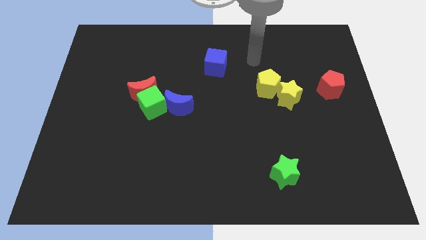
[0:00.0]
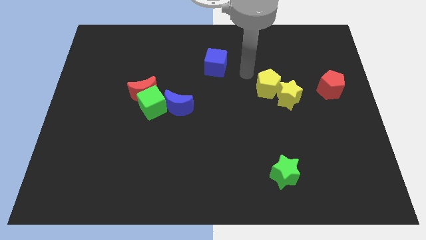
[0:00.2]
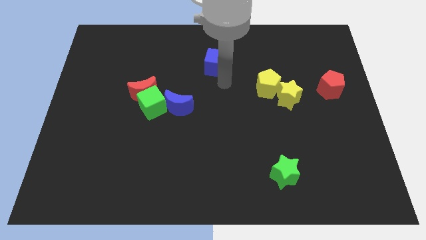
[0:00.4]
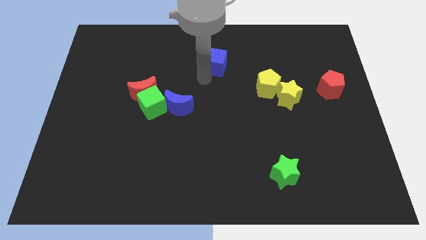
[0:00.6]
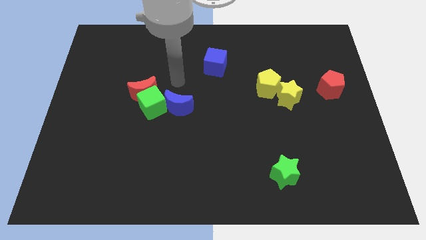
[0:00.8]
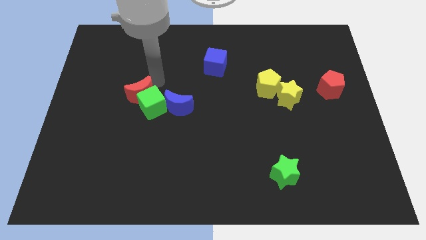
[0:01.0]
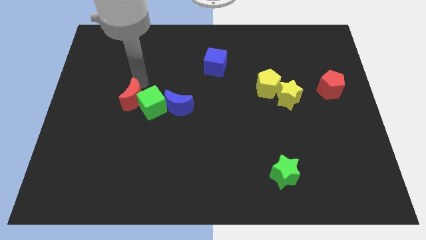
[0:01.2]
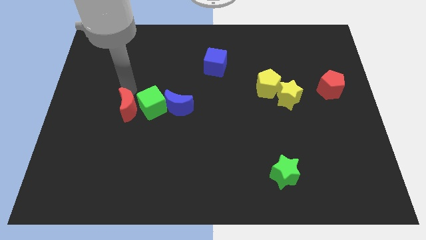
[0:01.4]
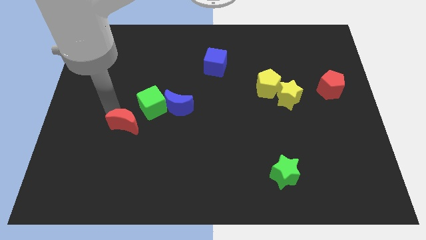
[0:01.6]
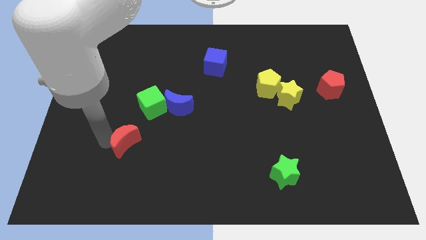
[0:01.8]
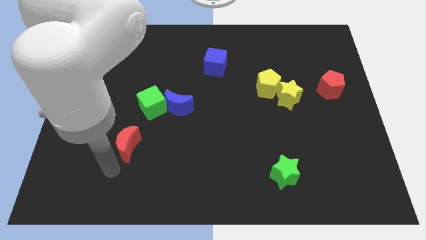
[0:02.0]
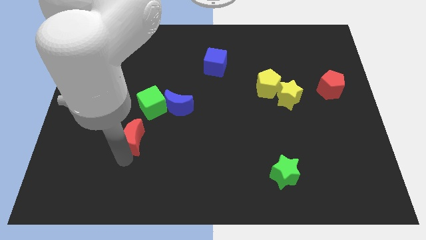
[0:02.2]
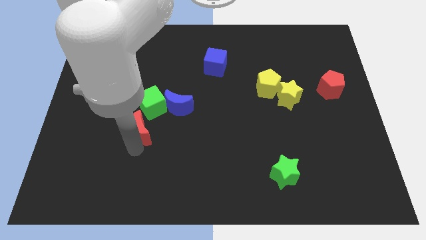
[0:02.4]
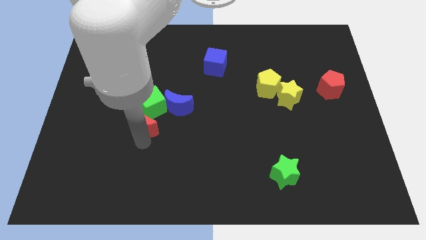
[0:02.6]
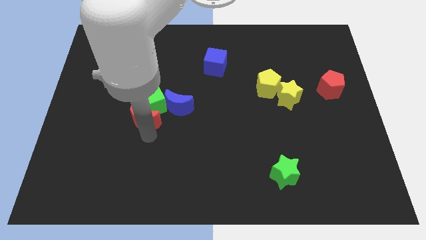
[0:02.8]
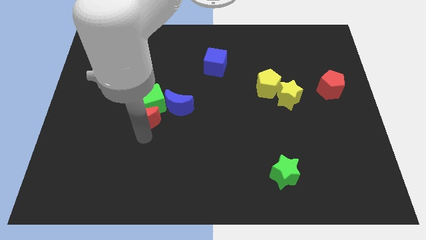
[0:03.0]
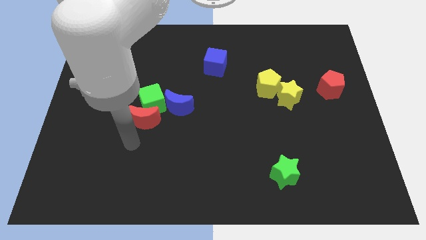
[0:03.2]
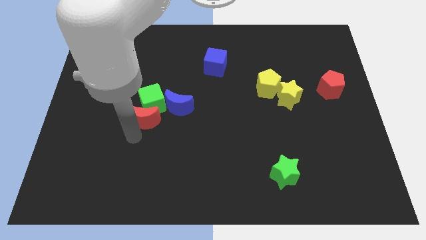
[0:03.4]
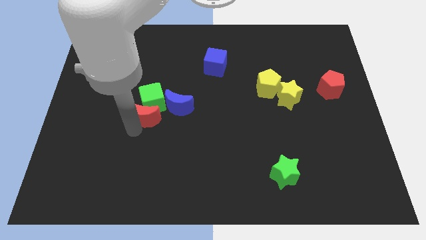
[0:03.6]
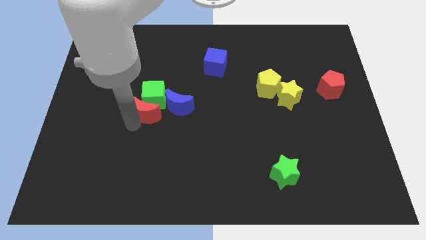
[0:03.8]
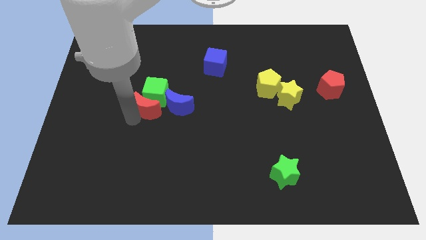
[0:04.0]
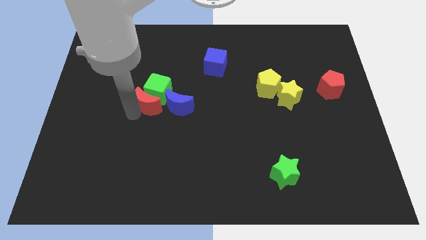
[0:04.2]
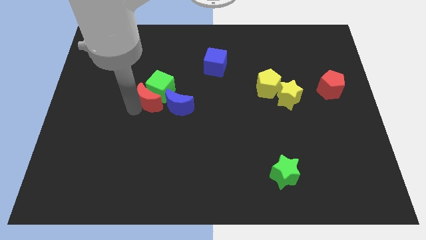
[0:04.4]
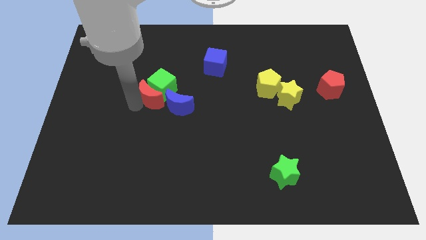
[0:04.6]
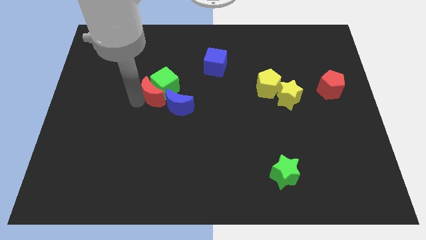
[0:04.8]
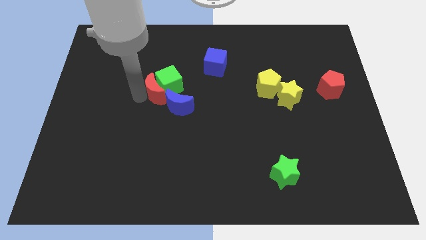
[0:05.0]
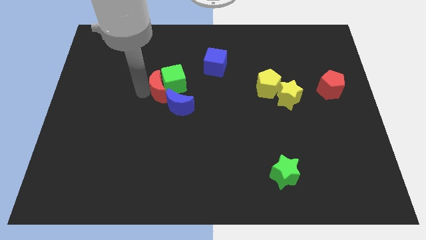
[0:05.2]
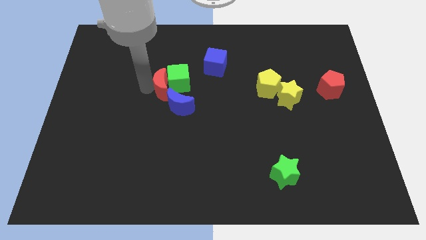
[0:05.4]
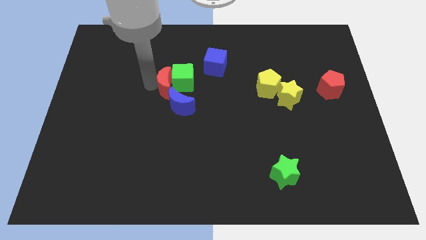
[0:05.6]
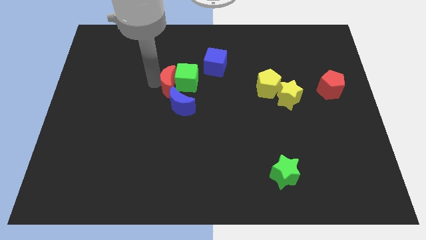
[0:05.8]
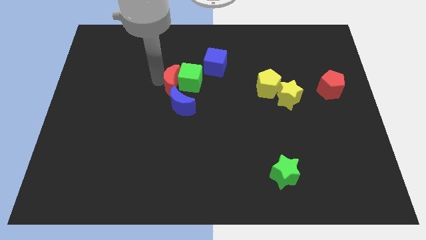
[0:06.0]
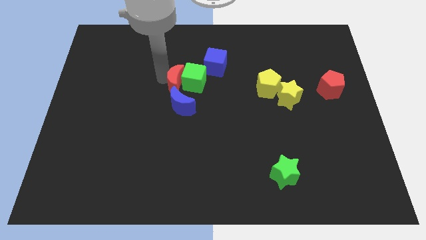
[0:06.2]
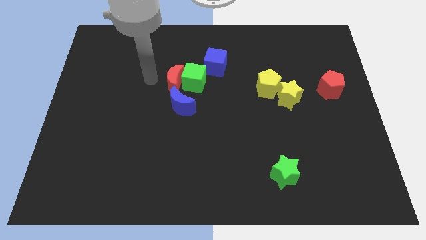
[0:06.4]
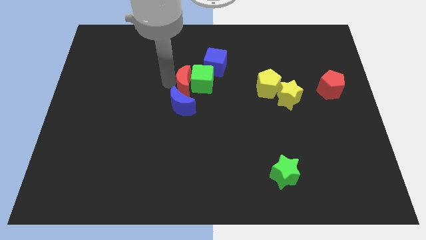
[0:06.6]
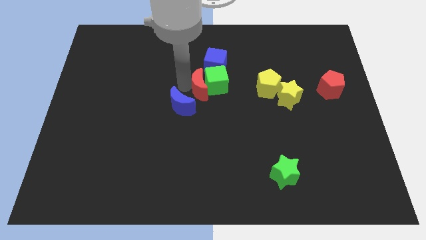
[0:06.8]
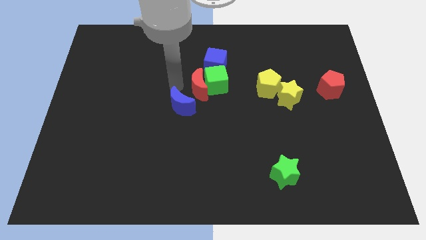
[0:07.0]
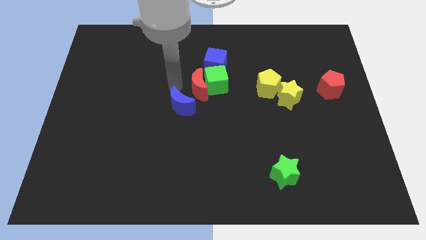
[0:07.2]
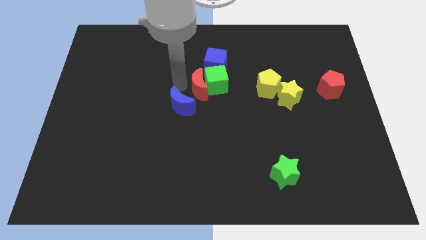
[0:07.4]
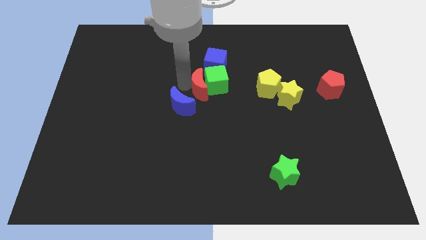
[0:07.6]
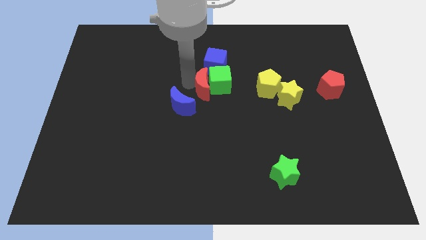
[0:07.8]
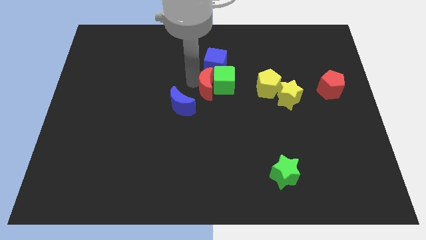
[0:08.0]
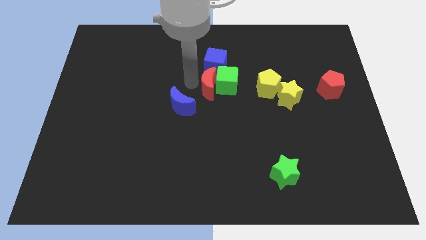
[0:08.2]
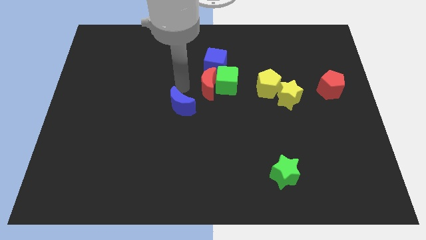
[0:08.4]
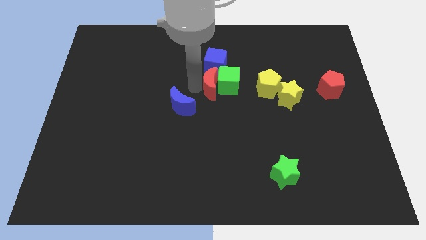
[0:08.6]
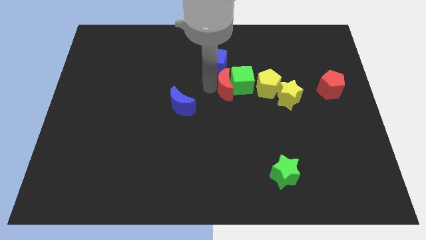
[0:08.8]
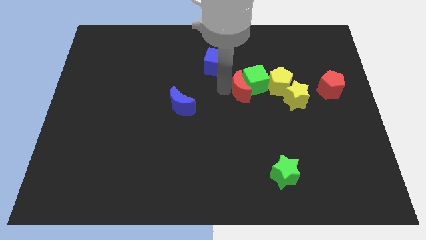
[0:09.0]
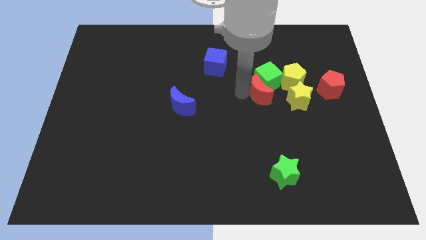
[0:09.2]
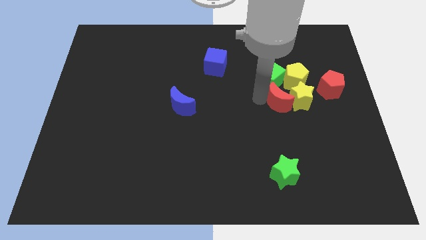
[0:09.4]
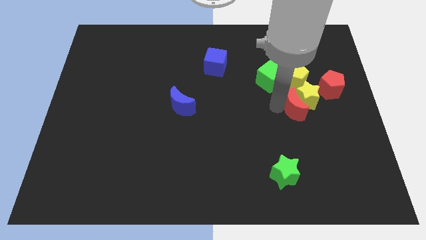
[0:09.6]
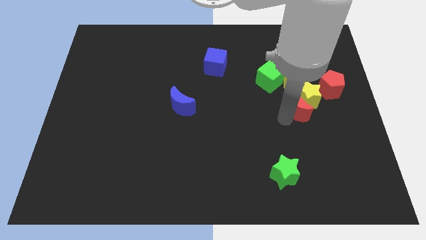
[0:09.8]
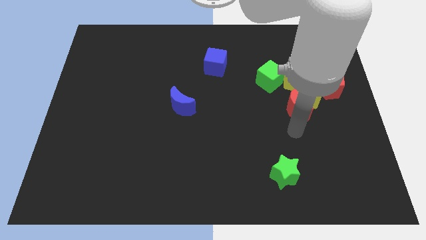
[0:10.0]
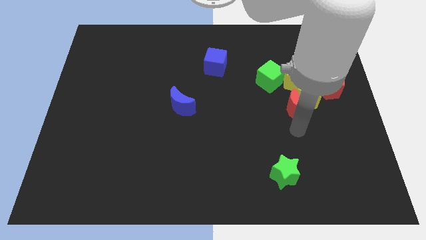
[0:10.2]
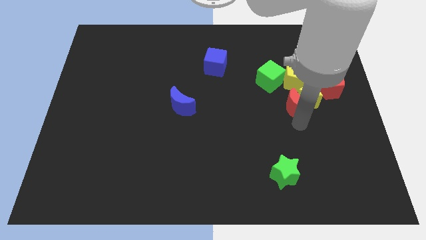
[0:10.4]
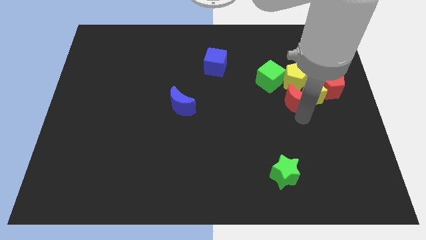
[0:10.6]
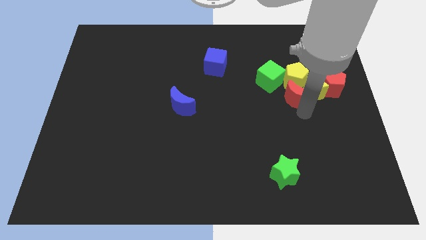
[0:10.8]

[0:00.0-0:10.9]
put the red moon next to the yellow pentagon

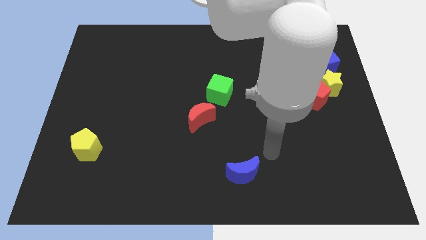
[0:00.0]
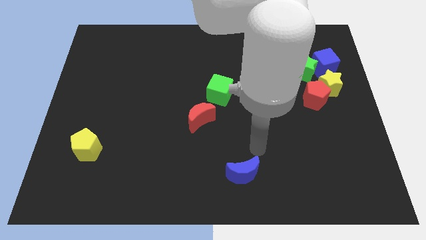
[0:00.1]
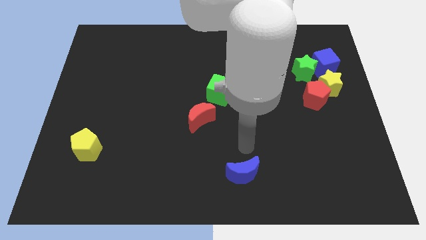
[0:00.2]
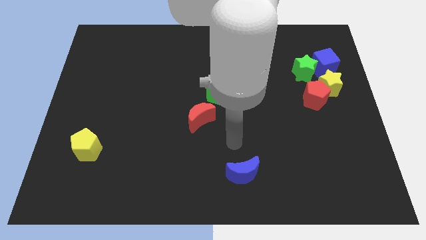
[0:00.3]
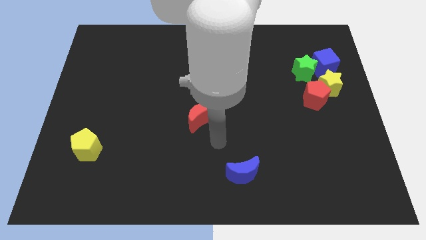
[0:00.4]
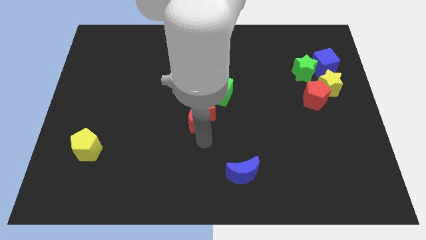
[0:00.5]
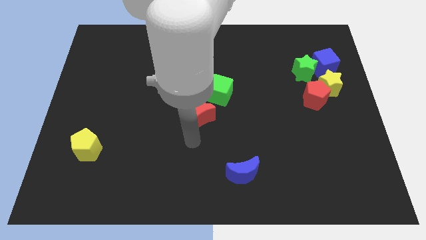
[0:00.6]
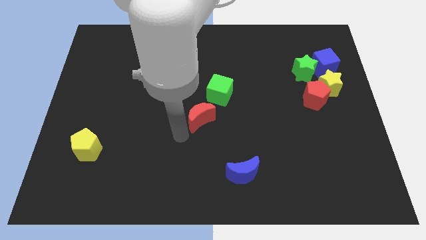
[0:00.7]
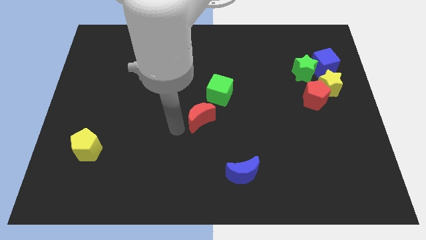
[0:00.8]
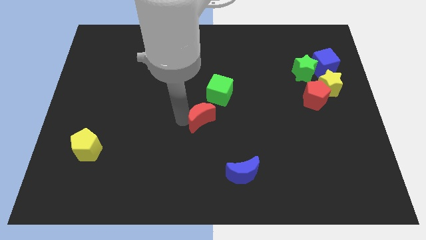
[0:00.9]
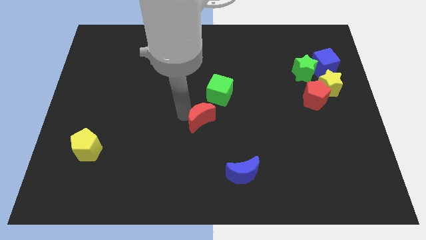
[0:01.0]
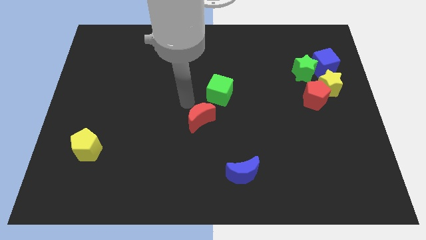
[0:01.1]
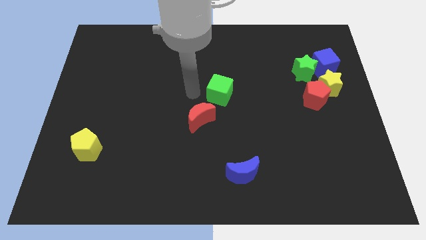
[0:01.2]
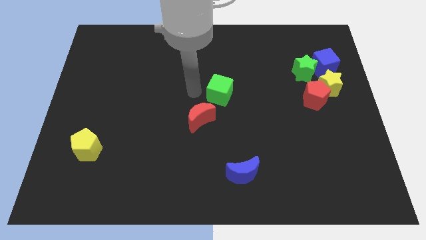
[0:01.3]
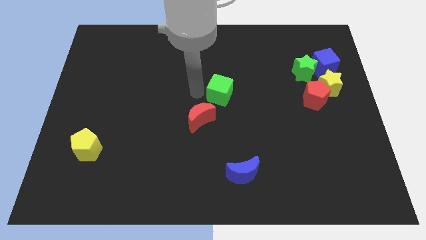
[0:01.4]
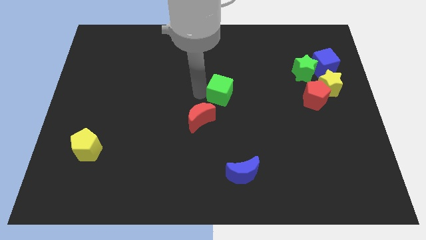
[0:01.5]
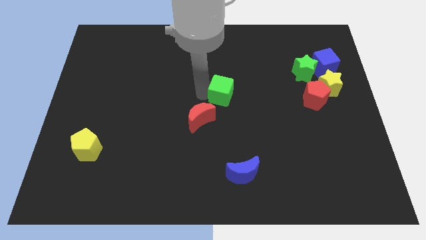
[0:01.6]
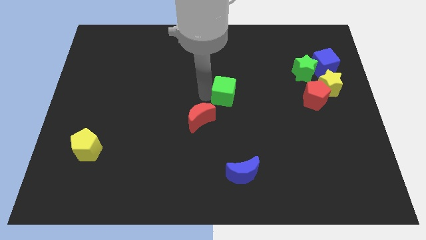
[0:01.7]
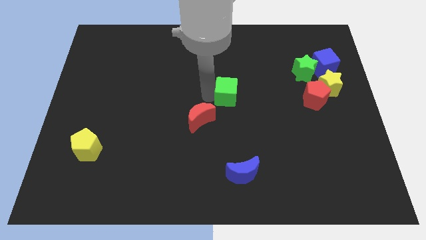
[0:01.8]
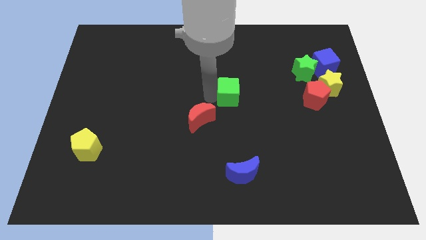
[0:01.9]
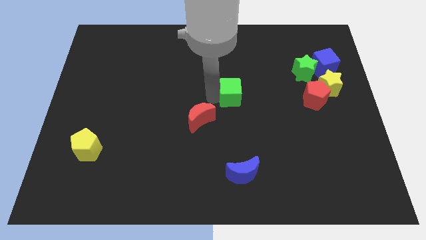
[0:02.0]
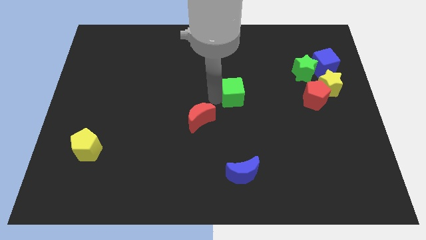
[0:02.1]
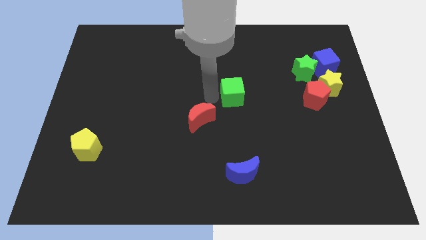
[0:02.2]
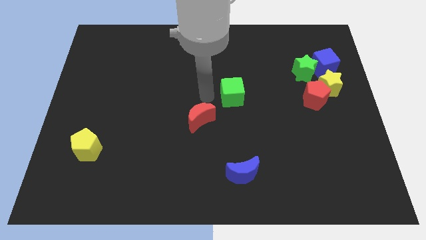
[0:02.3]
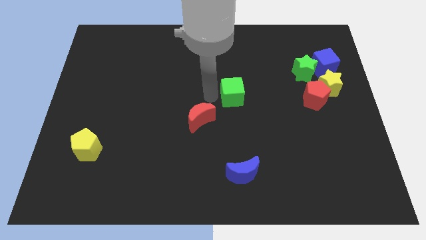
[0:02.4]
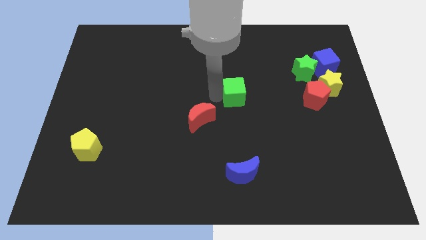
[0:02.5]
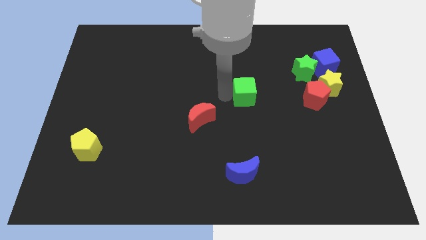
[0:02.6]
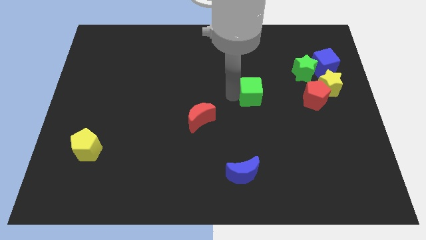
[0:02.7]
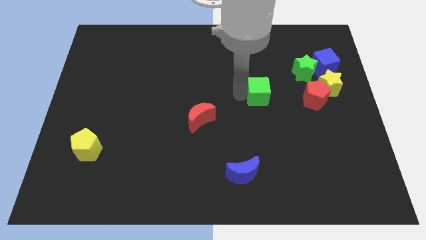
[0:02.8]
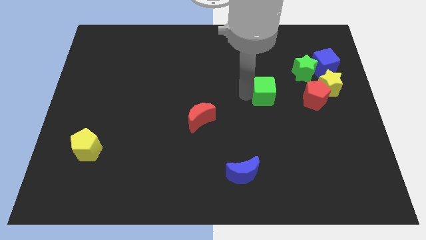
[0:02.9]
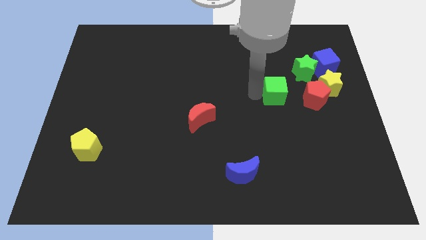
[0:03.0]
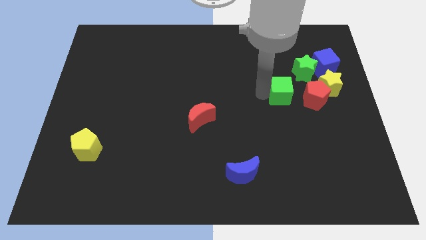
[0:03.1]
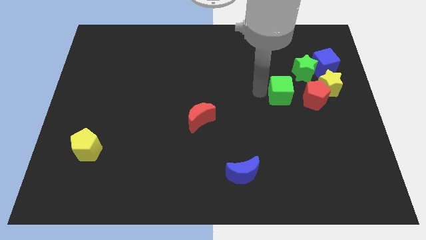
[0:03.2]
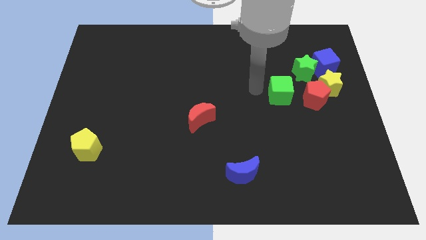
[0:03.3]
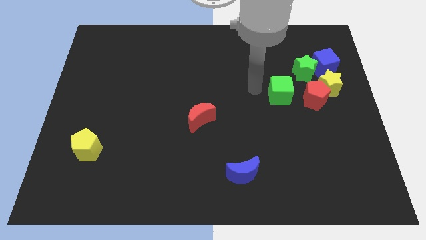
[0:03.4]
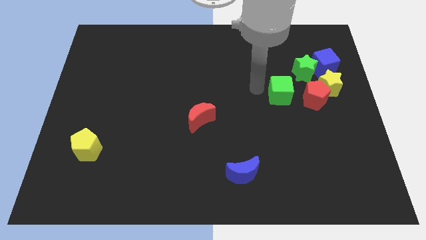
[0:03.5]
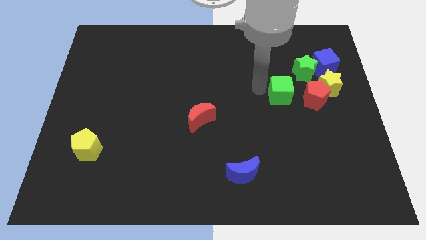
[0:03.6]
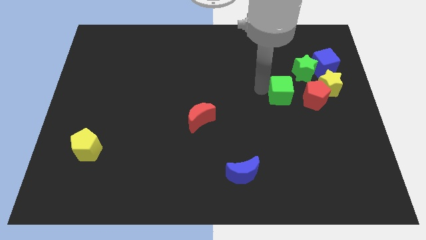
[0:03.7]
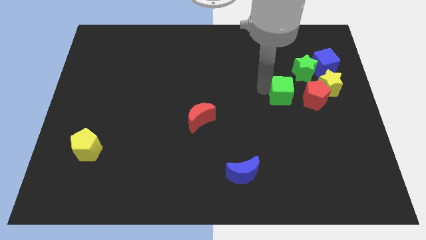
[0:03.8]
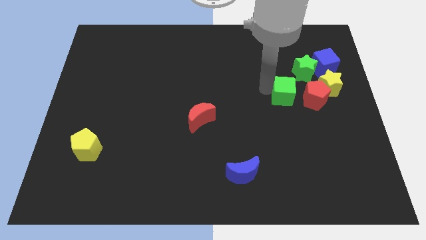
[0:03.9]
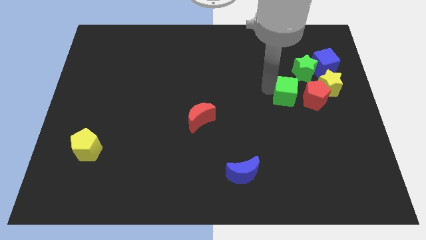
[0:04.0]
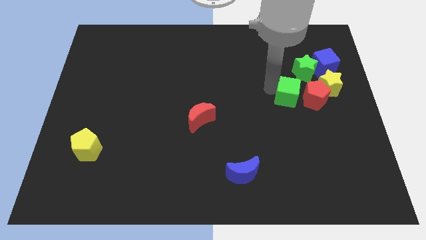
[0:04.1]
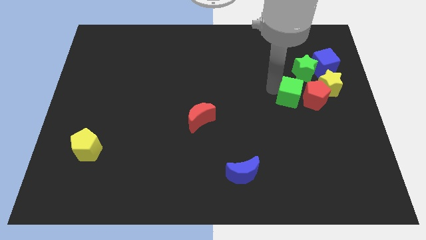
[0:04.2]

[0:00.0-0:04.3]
push the green cube towards the red pentagon
